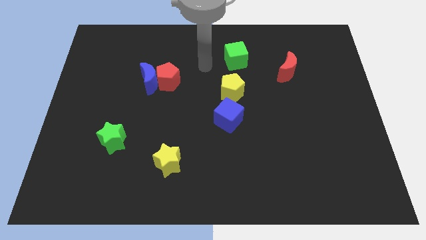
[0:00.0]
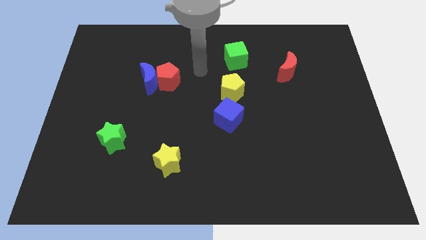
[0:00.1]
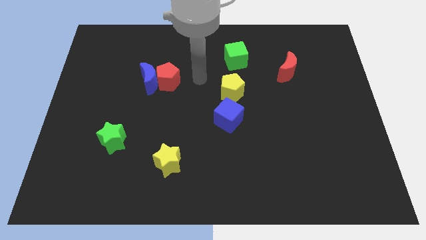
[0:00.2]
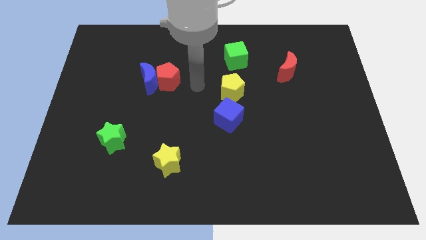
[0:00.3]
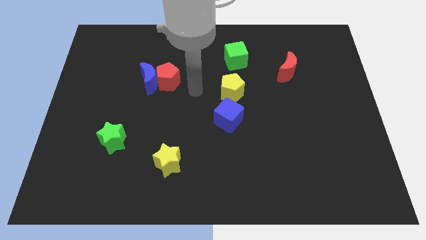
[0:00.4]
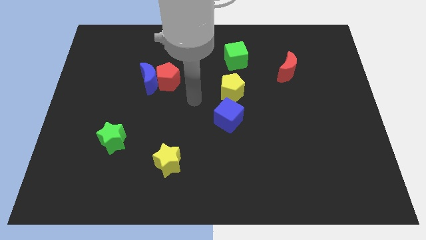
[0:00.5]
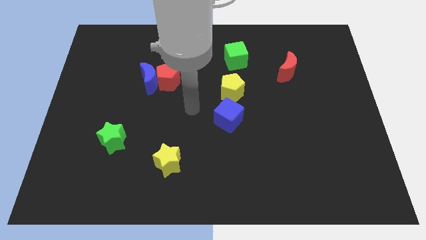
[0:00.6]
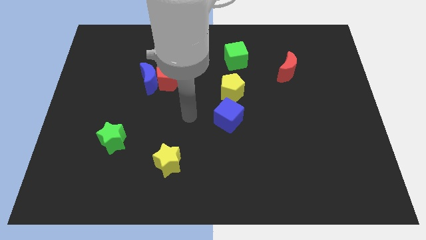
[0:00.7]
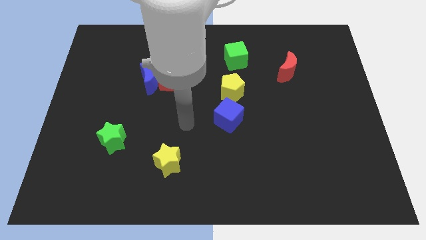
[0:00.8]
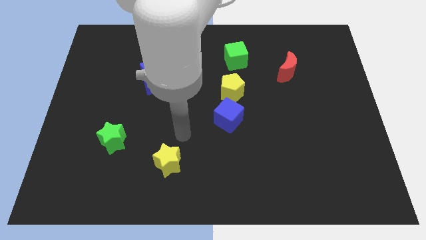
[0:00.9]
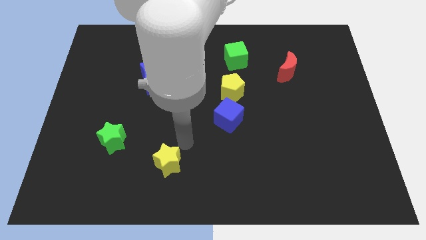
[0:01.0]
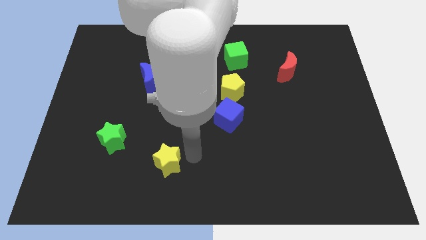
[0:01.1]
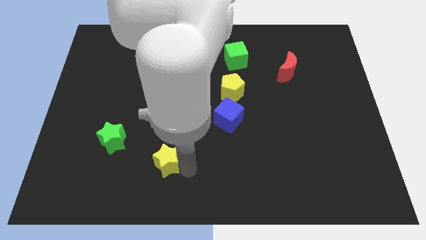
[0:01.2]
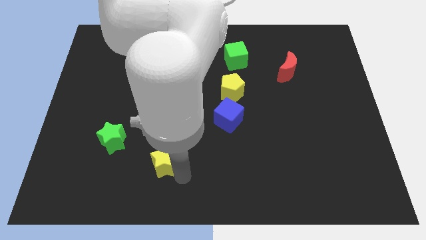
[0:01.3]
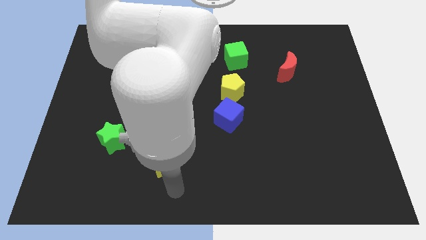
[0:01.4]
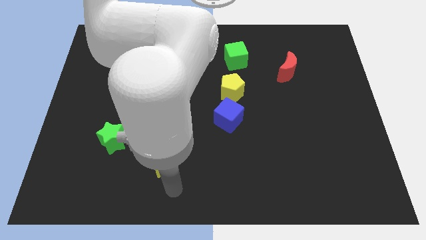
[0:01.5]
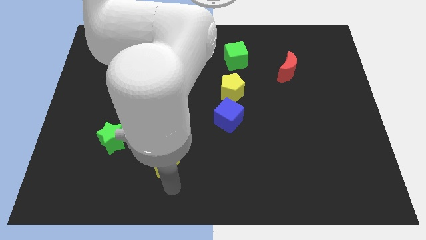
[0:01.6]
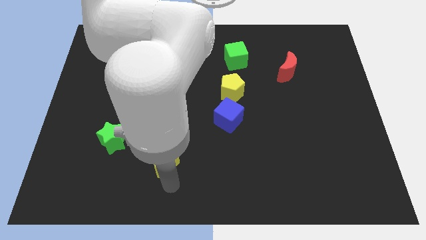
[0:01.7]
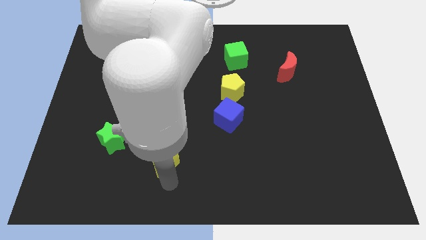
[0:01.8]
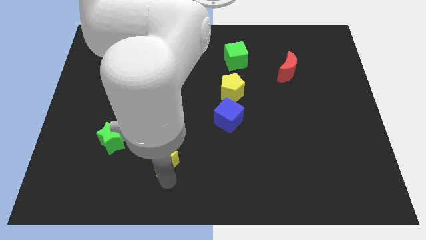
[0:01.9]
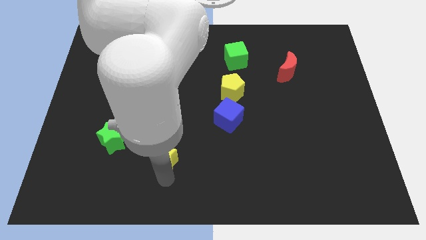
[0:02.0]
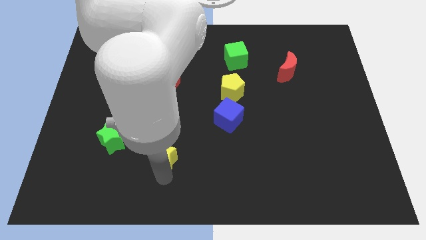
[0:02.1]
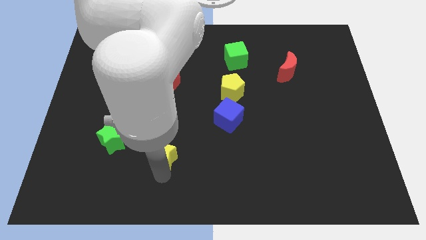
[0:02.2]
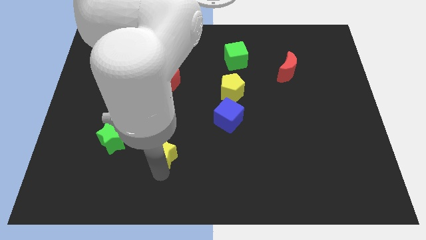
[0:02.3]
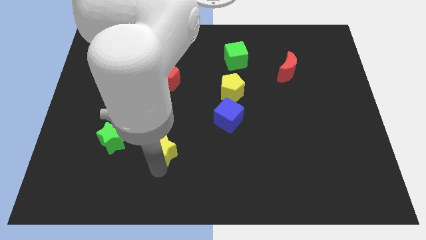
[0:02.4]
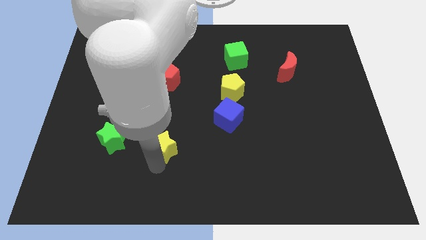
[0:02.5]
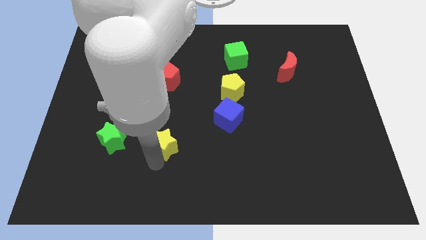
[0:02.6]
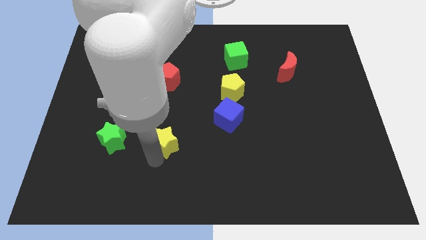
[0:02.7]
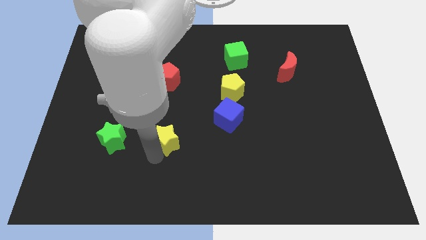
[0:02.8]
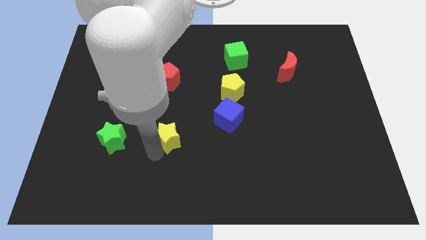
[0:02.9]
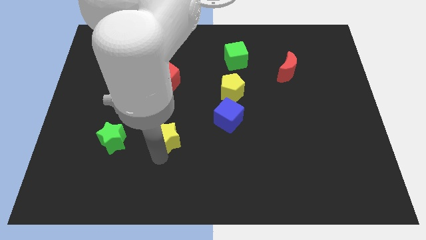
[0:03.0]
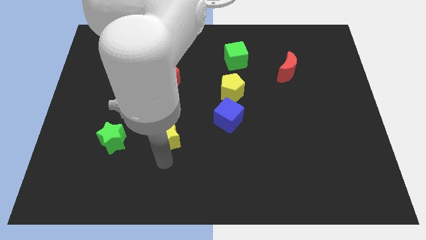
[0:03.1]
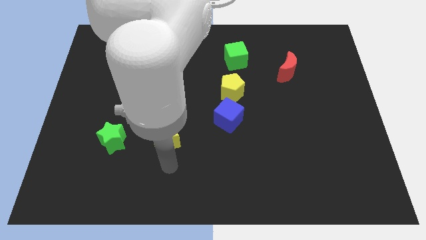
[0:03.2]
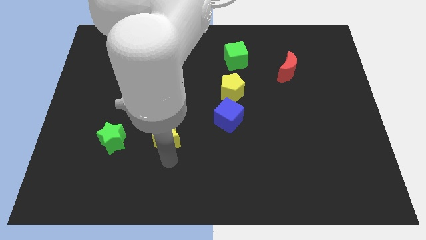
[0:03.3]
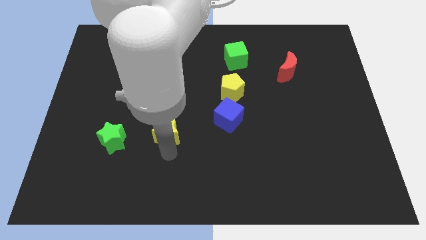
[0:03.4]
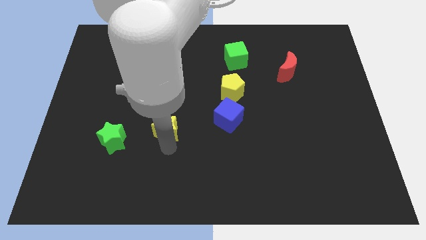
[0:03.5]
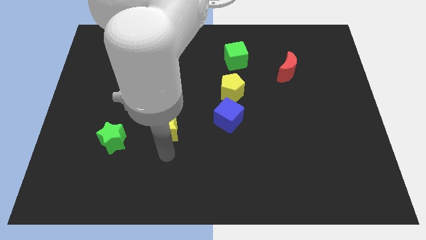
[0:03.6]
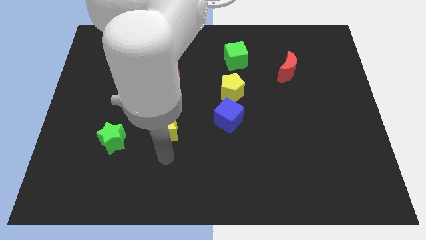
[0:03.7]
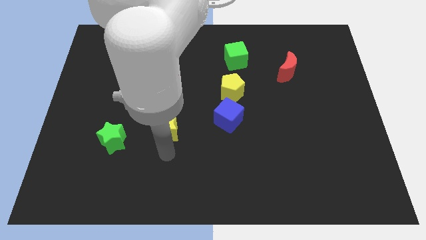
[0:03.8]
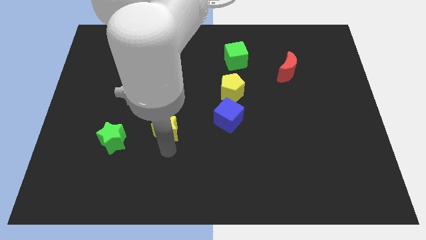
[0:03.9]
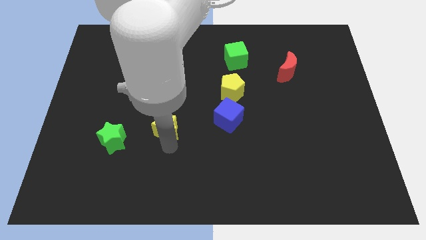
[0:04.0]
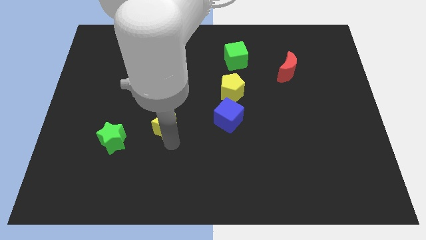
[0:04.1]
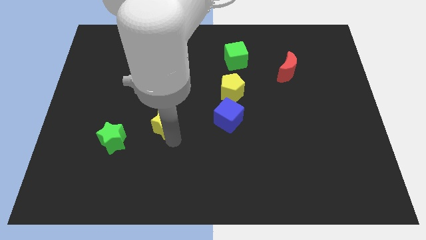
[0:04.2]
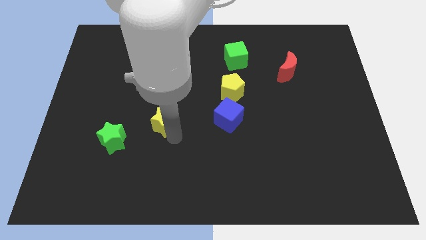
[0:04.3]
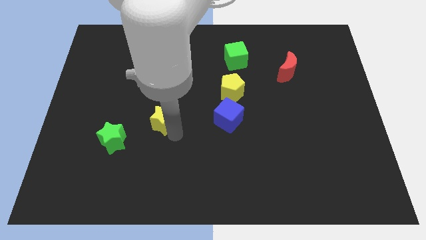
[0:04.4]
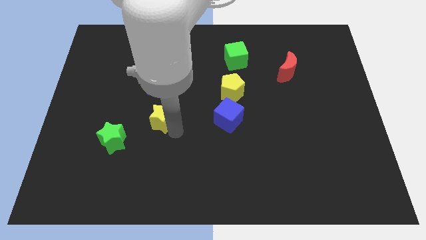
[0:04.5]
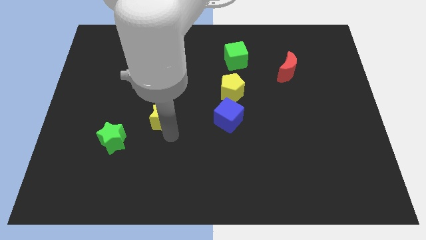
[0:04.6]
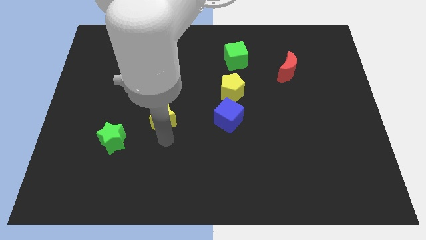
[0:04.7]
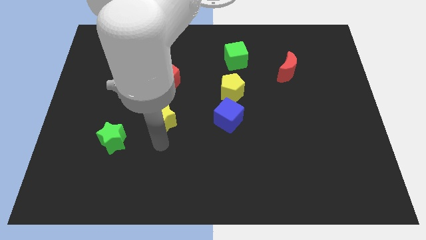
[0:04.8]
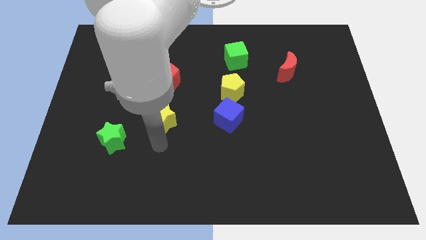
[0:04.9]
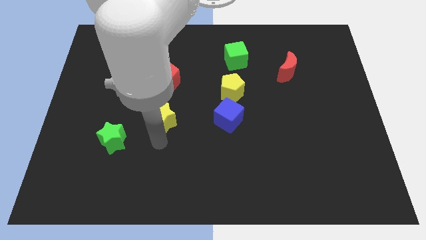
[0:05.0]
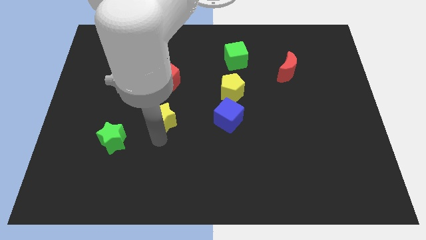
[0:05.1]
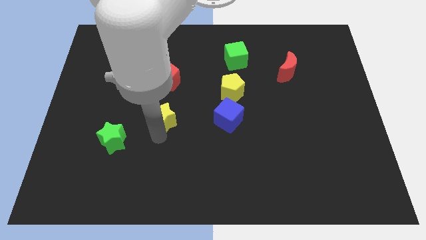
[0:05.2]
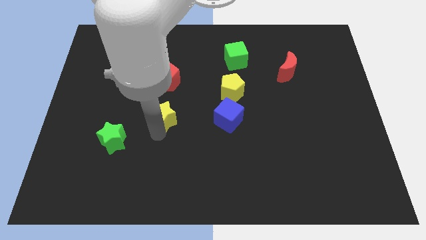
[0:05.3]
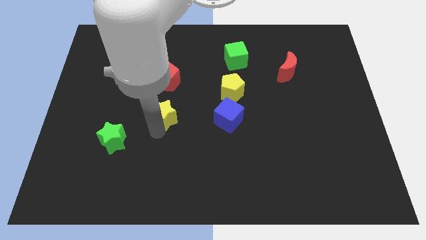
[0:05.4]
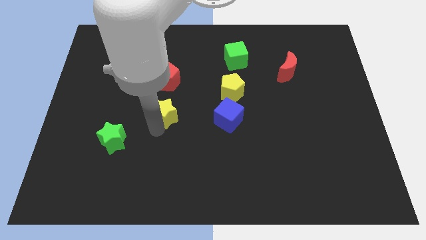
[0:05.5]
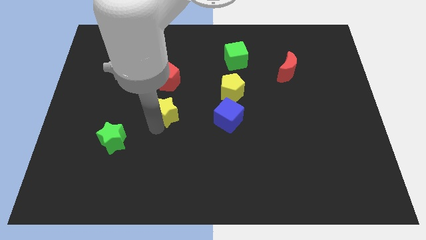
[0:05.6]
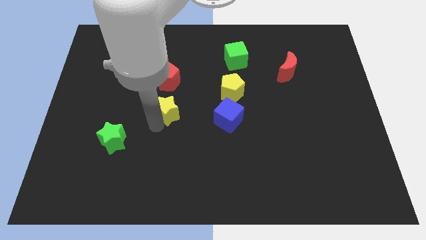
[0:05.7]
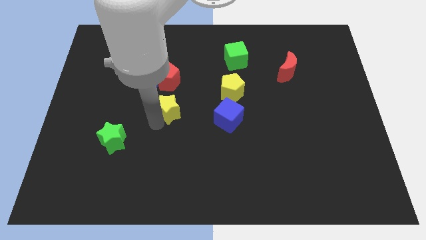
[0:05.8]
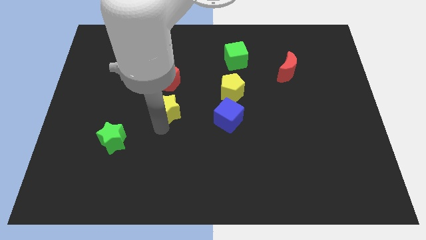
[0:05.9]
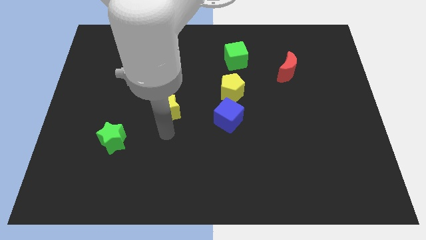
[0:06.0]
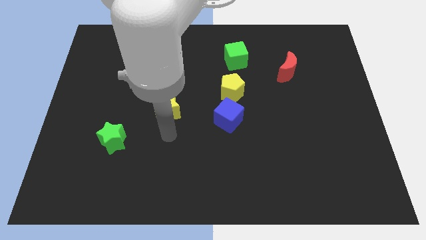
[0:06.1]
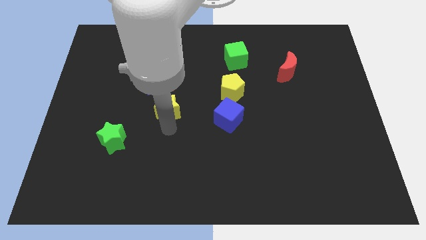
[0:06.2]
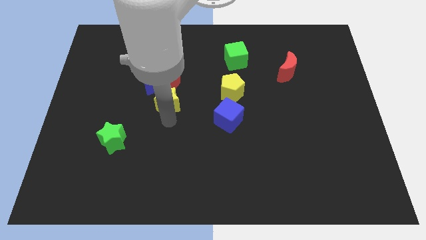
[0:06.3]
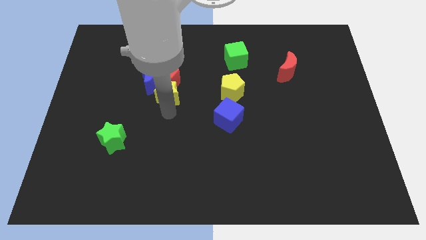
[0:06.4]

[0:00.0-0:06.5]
push the yellow star towards the red pentagon

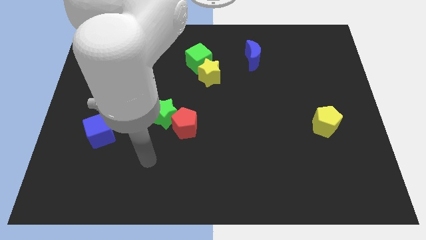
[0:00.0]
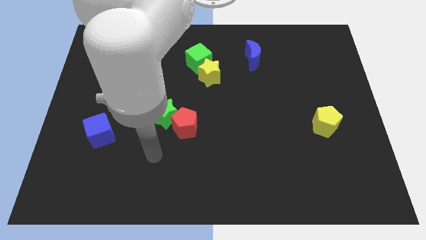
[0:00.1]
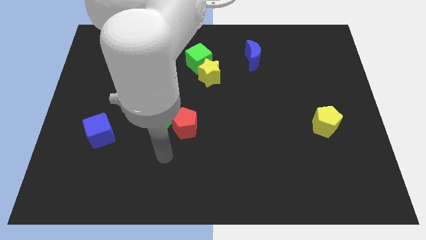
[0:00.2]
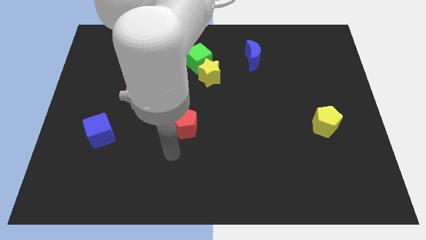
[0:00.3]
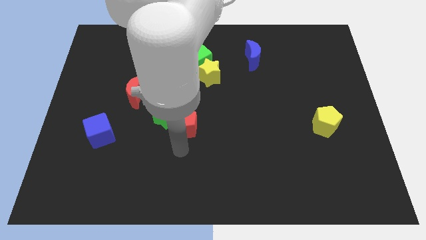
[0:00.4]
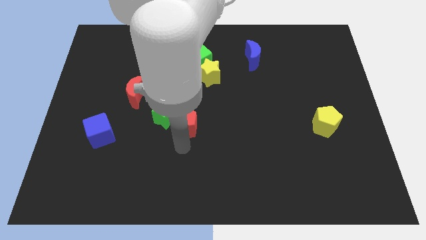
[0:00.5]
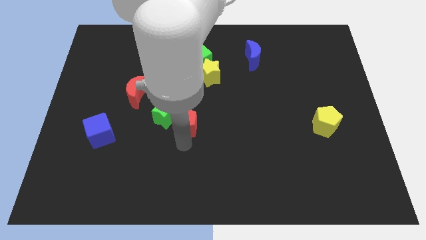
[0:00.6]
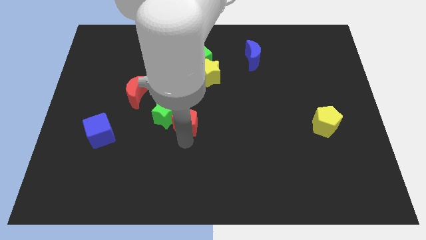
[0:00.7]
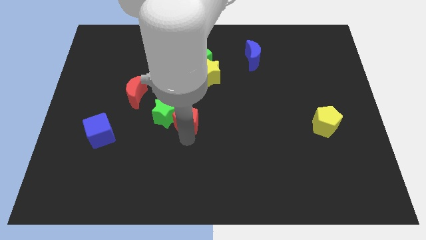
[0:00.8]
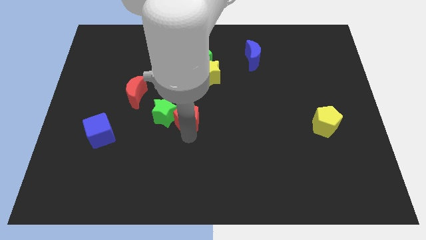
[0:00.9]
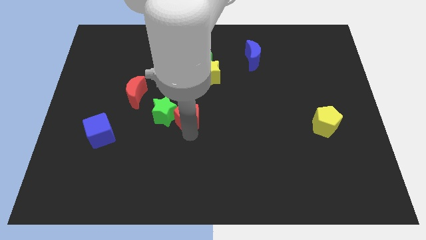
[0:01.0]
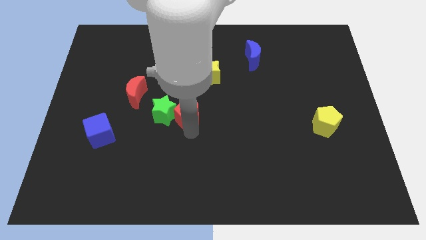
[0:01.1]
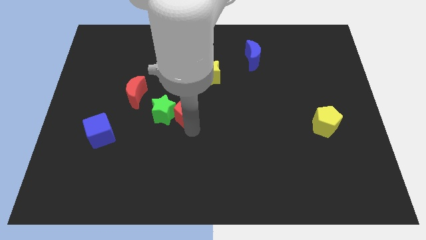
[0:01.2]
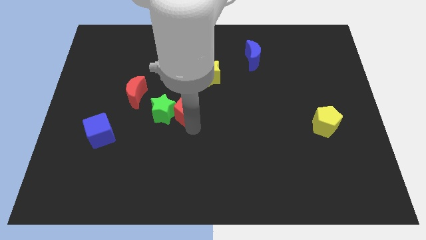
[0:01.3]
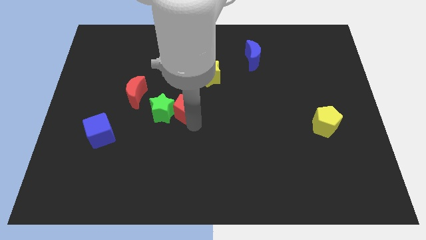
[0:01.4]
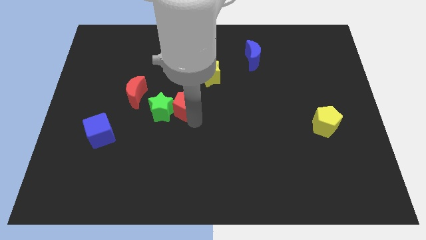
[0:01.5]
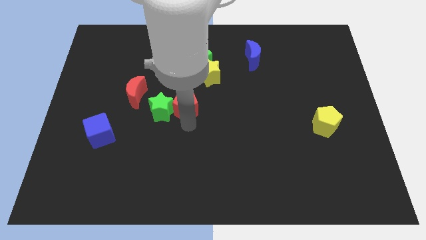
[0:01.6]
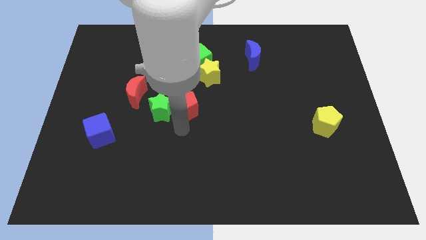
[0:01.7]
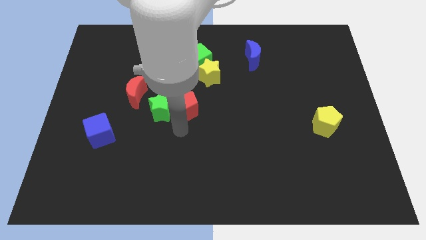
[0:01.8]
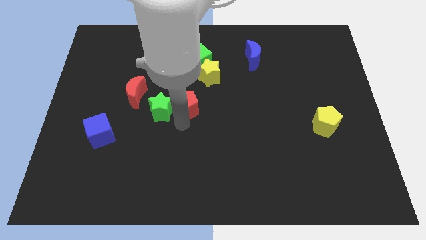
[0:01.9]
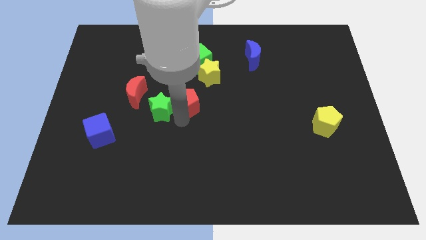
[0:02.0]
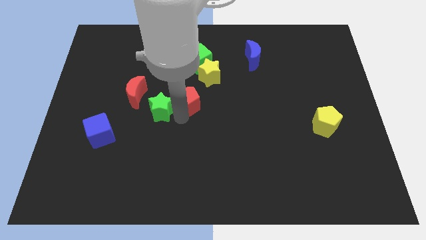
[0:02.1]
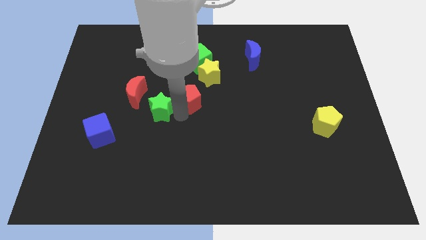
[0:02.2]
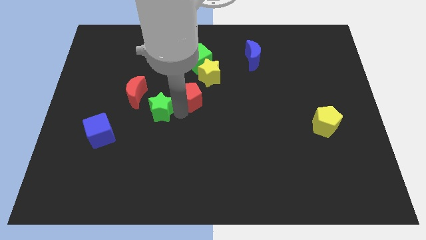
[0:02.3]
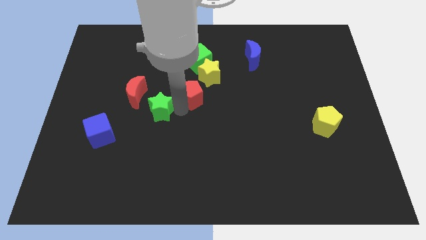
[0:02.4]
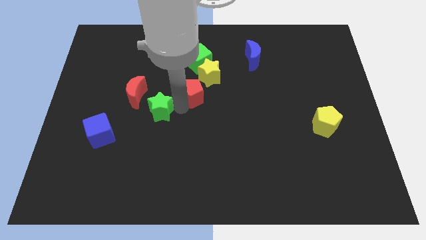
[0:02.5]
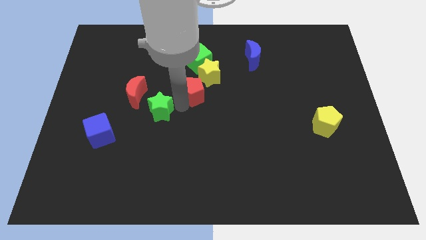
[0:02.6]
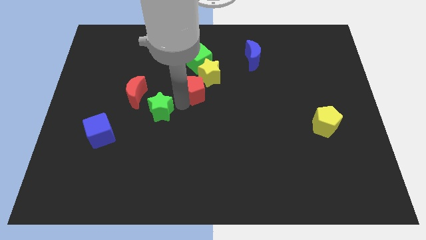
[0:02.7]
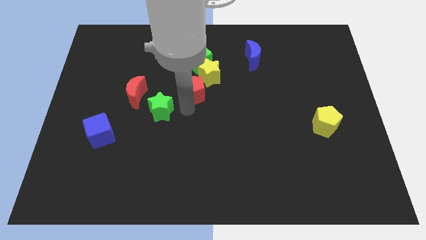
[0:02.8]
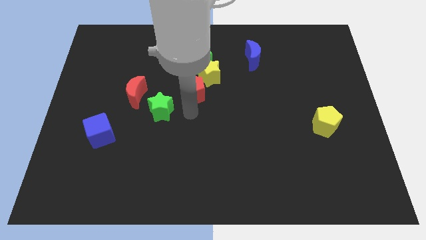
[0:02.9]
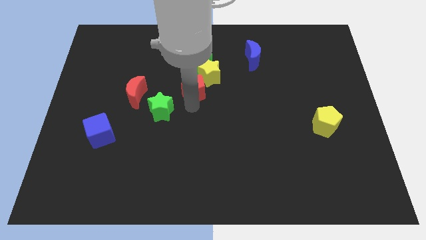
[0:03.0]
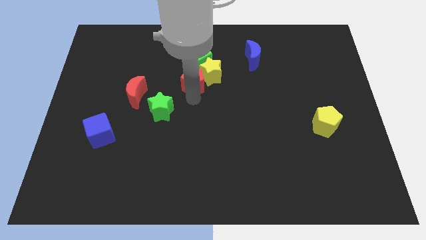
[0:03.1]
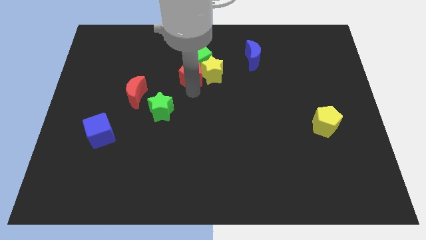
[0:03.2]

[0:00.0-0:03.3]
put the red pentagon close to the green cube
